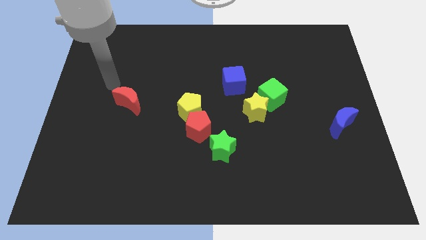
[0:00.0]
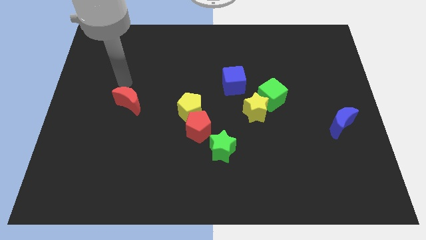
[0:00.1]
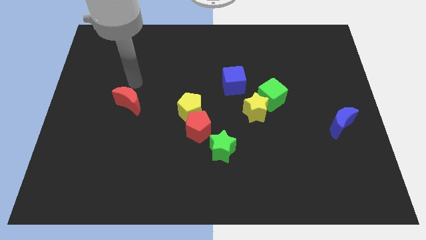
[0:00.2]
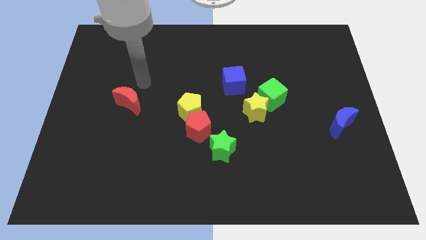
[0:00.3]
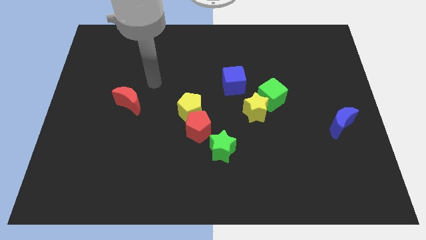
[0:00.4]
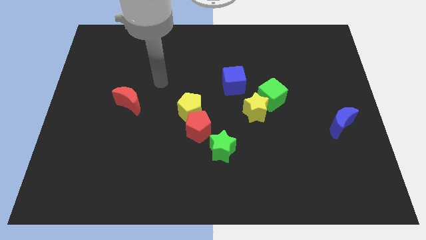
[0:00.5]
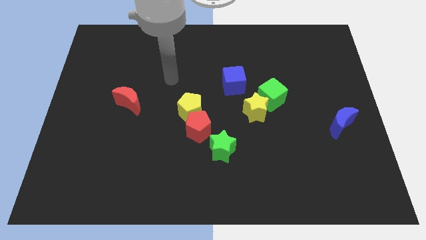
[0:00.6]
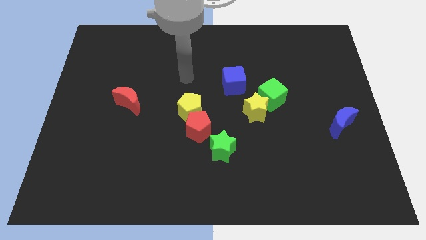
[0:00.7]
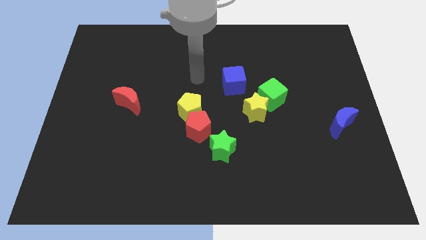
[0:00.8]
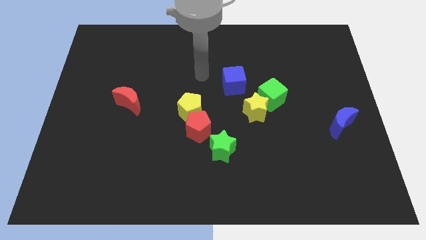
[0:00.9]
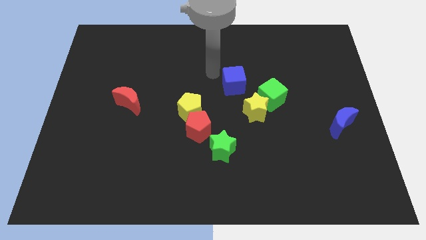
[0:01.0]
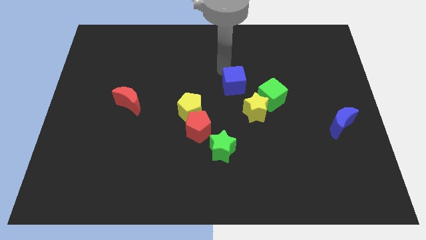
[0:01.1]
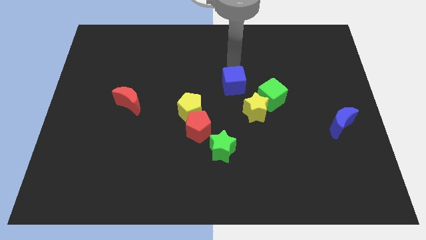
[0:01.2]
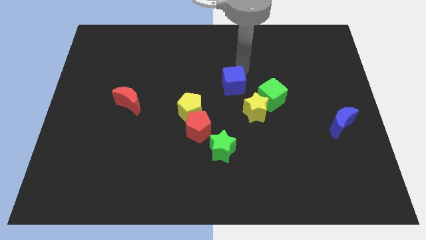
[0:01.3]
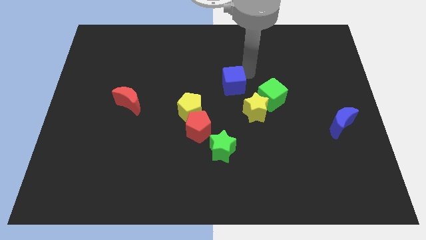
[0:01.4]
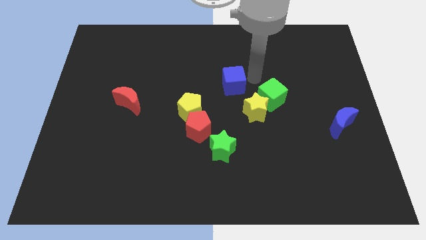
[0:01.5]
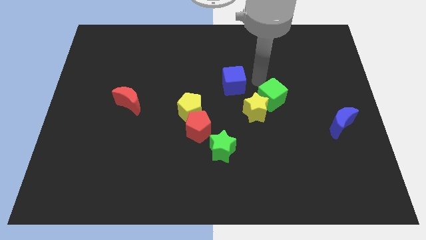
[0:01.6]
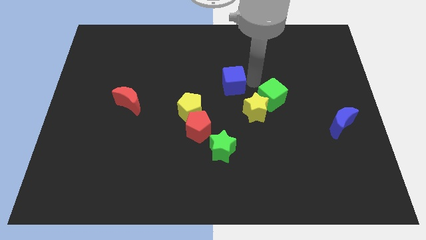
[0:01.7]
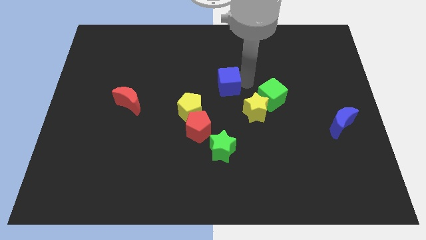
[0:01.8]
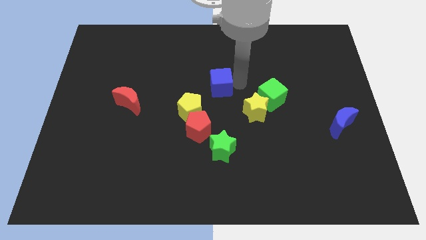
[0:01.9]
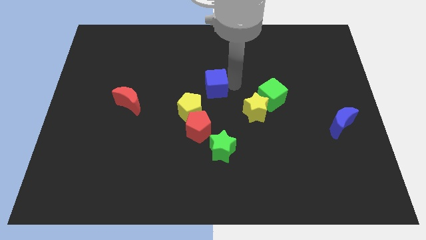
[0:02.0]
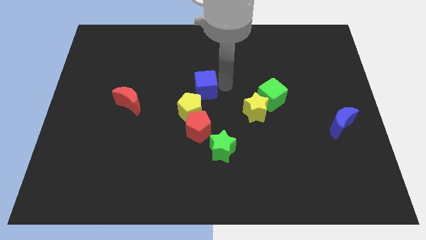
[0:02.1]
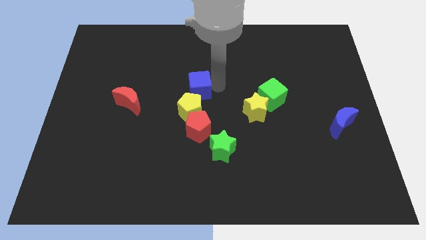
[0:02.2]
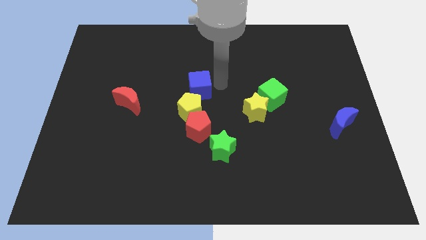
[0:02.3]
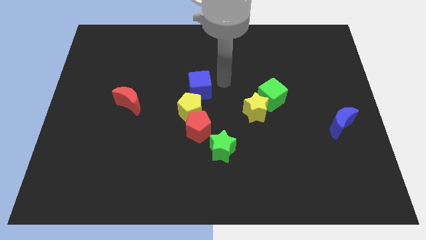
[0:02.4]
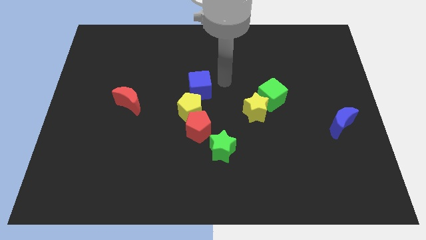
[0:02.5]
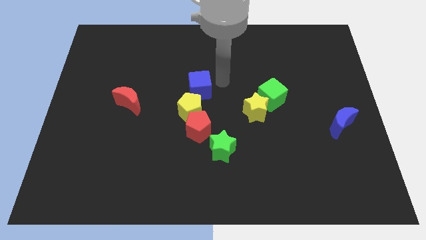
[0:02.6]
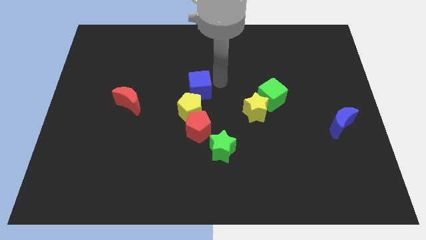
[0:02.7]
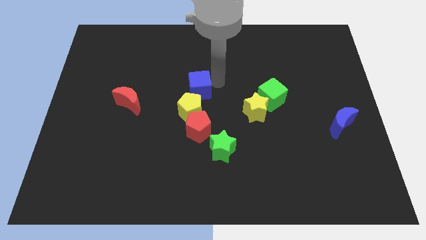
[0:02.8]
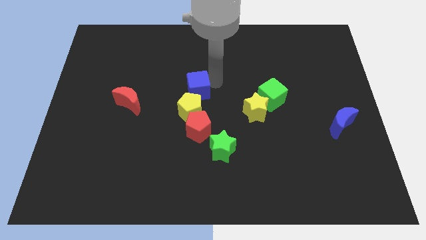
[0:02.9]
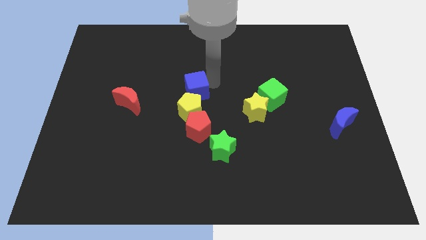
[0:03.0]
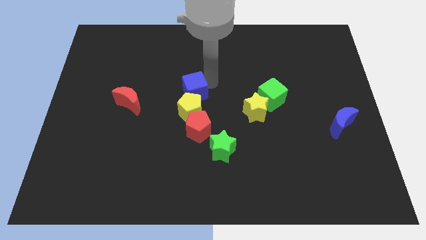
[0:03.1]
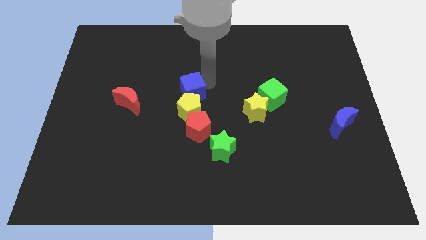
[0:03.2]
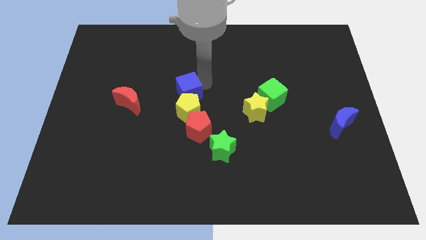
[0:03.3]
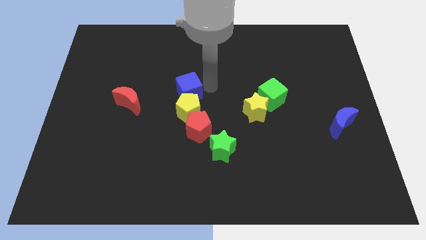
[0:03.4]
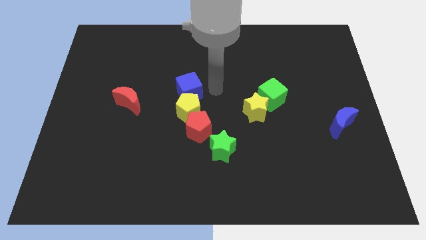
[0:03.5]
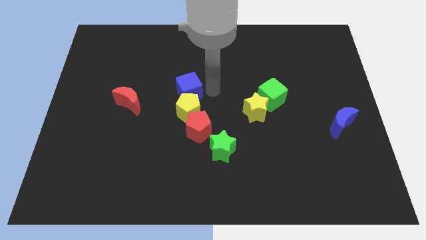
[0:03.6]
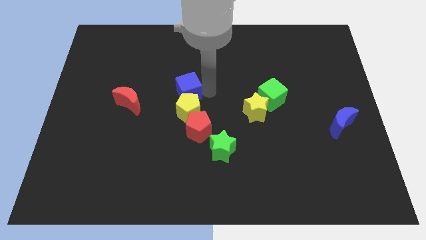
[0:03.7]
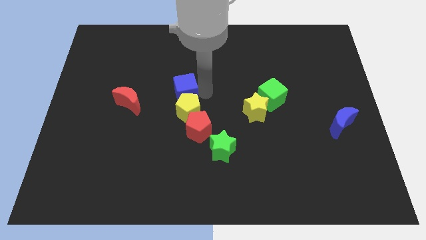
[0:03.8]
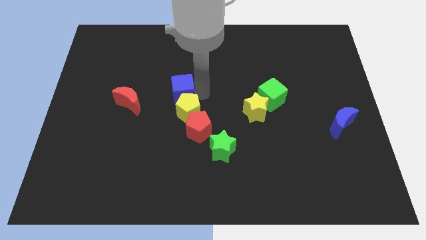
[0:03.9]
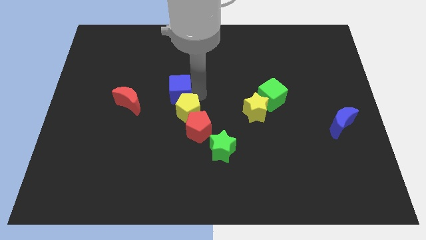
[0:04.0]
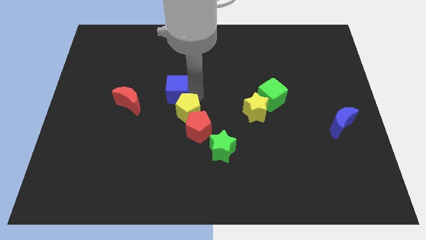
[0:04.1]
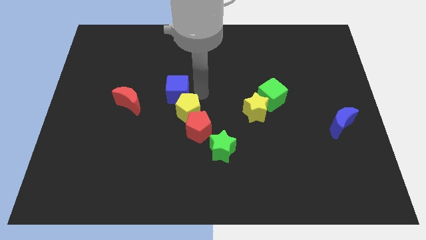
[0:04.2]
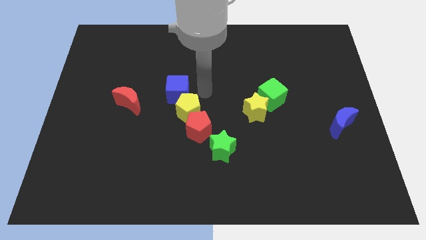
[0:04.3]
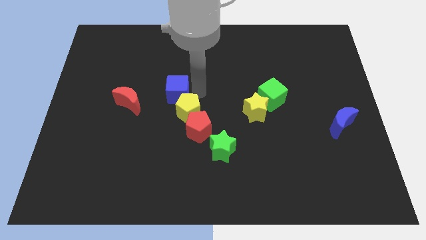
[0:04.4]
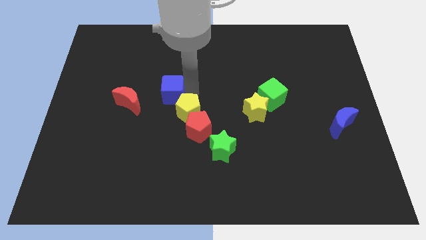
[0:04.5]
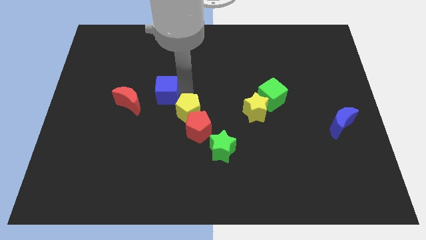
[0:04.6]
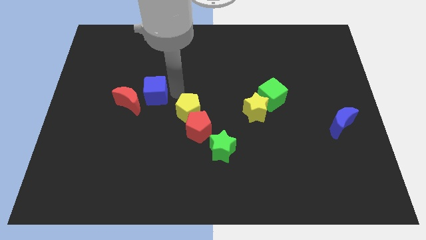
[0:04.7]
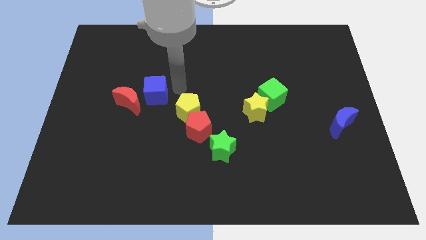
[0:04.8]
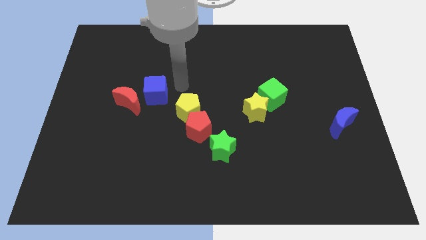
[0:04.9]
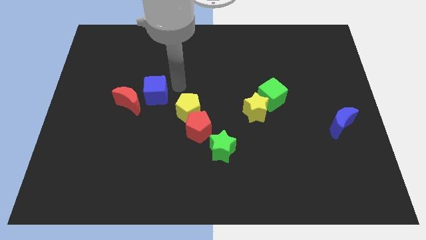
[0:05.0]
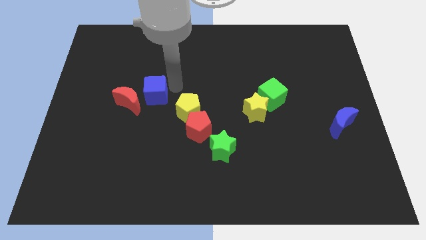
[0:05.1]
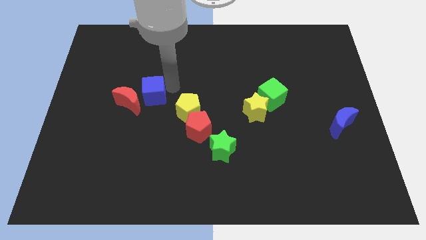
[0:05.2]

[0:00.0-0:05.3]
move the blue cube to the red moon

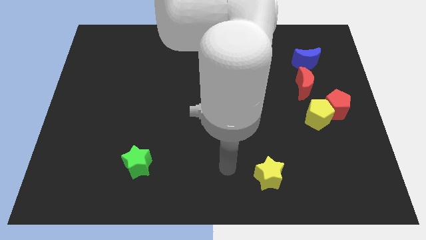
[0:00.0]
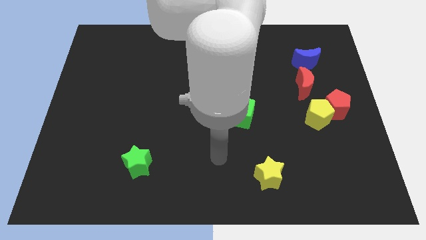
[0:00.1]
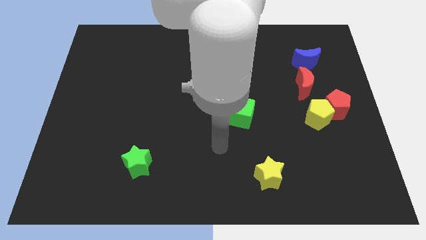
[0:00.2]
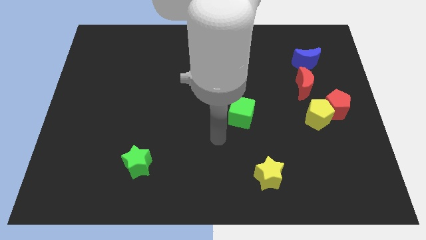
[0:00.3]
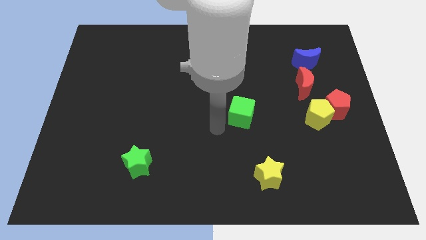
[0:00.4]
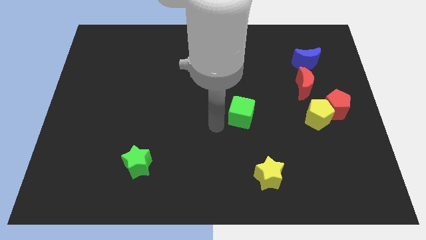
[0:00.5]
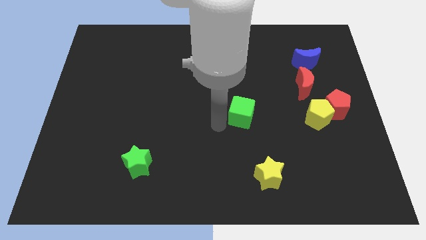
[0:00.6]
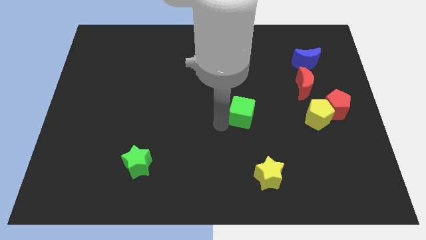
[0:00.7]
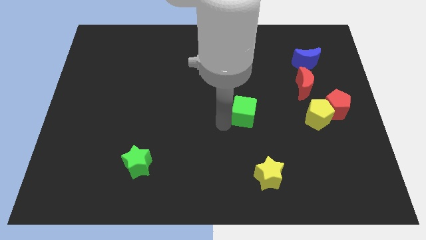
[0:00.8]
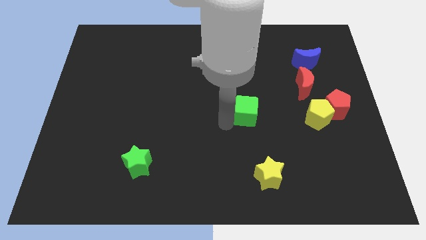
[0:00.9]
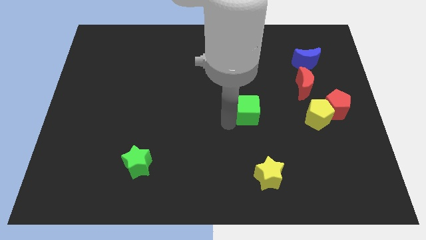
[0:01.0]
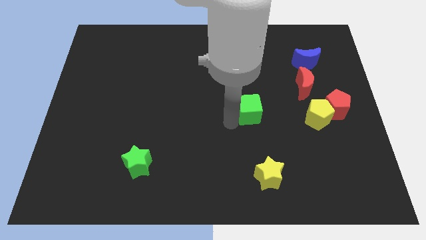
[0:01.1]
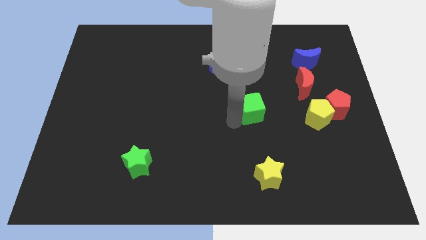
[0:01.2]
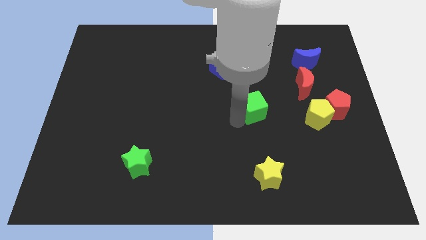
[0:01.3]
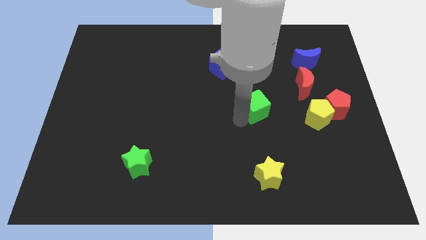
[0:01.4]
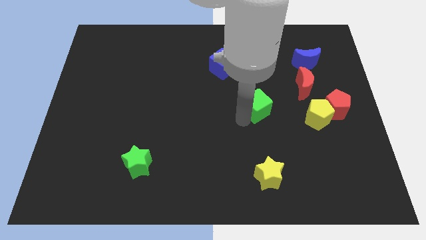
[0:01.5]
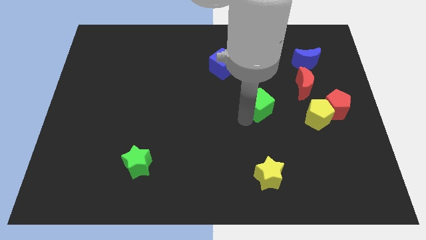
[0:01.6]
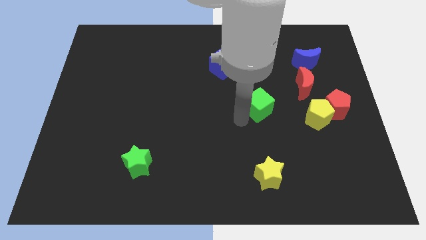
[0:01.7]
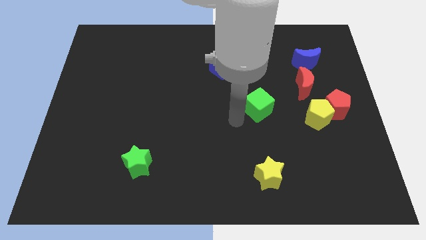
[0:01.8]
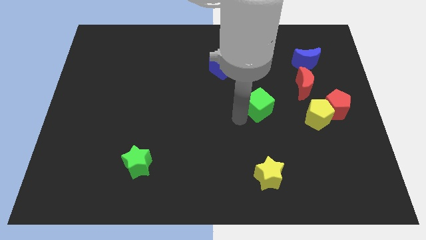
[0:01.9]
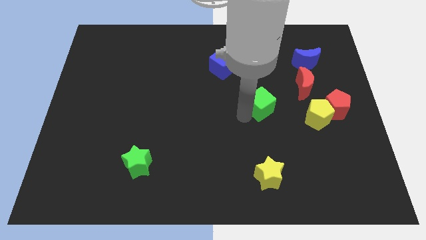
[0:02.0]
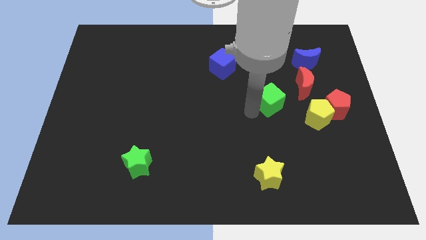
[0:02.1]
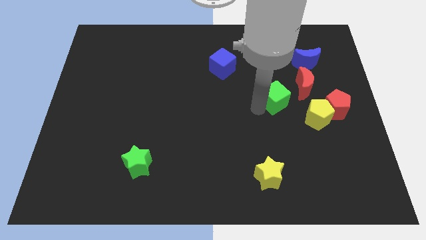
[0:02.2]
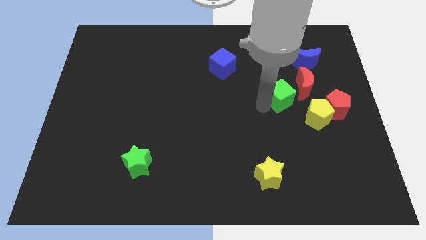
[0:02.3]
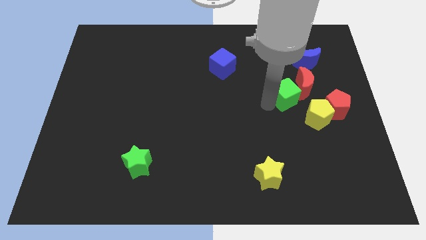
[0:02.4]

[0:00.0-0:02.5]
slide the green cube towards the red moon
